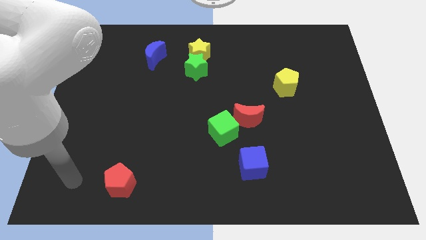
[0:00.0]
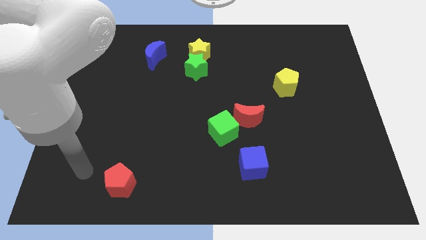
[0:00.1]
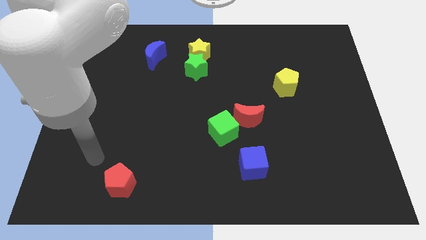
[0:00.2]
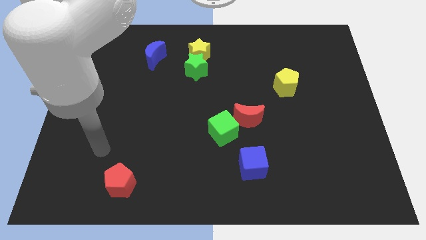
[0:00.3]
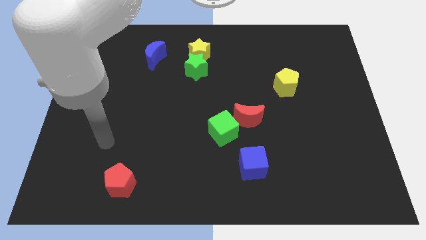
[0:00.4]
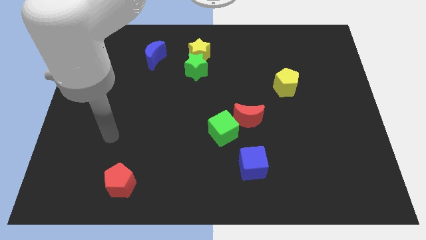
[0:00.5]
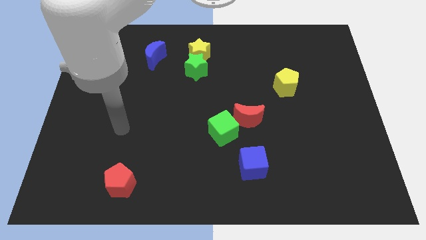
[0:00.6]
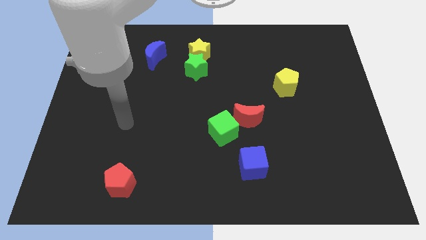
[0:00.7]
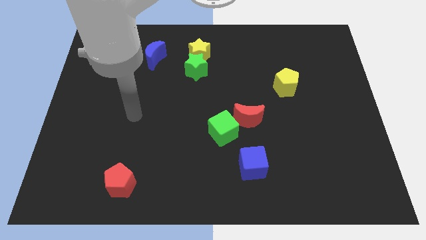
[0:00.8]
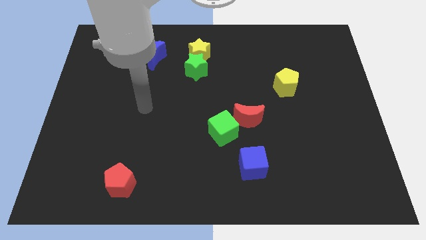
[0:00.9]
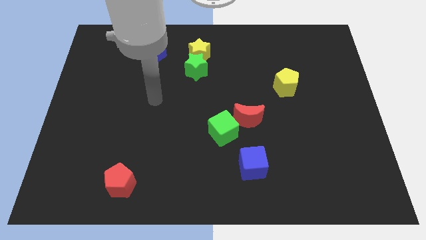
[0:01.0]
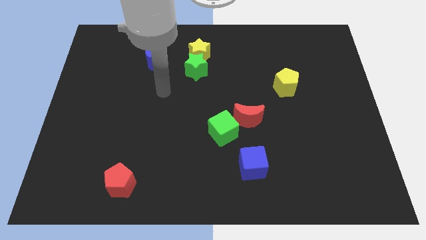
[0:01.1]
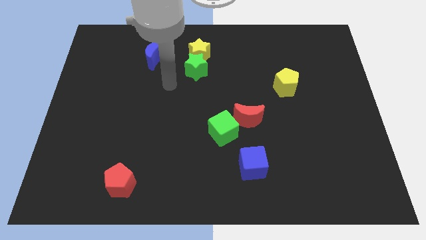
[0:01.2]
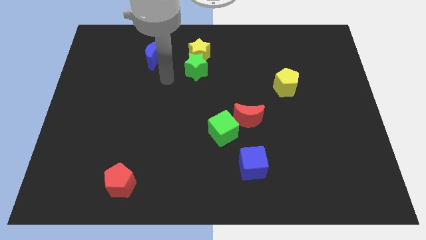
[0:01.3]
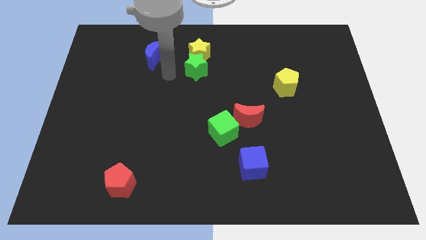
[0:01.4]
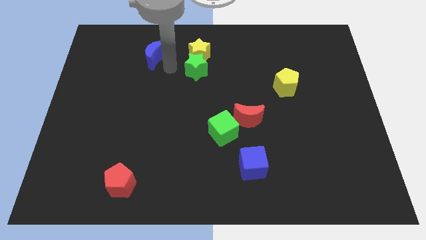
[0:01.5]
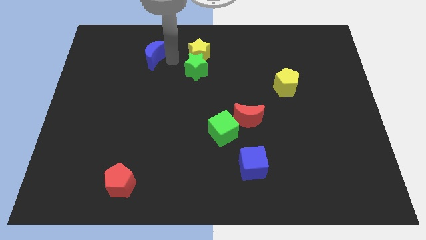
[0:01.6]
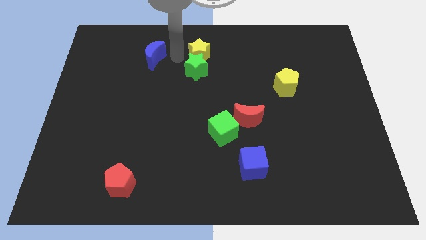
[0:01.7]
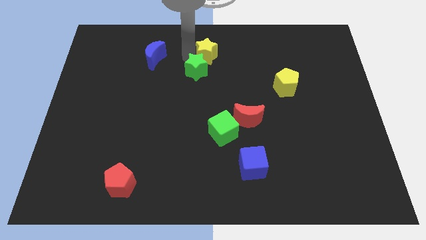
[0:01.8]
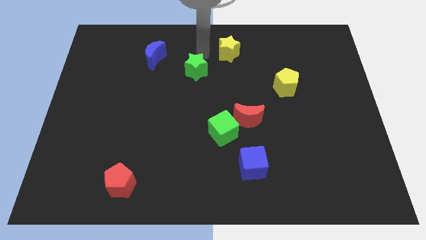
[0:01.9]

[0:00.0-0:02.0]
pull the green star apart from the yellow star

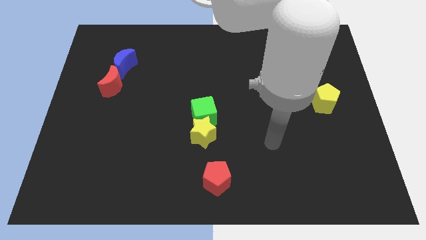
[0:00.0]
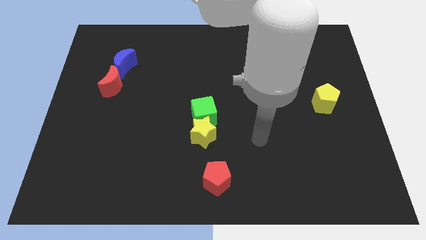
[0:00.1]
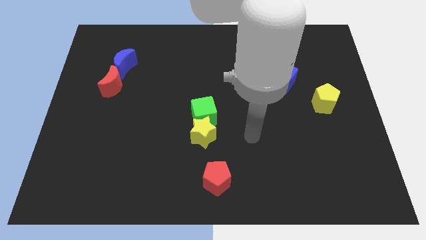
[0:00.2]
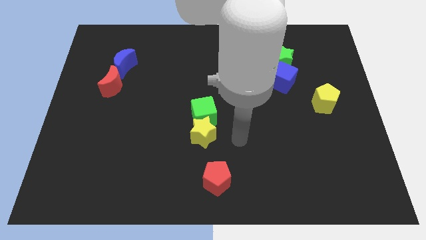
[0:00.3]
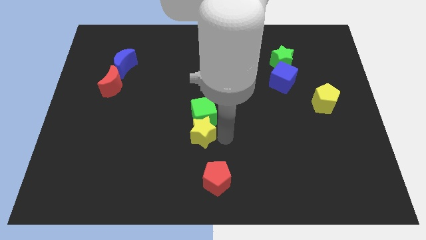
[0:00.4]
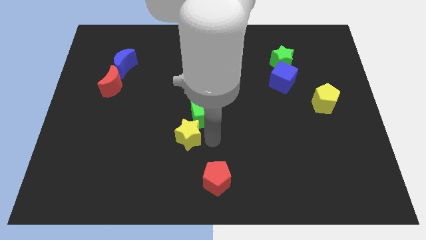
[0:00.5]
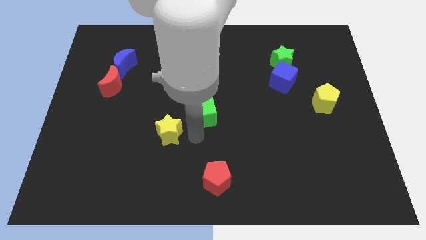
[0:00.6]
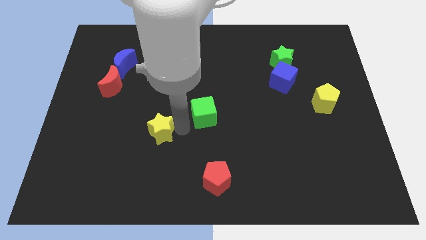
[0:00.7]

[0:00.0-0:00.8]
separate the green cube from the yellow star

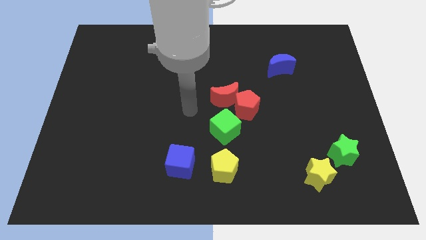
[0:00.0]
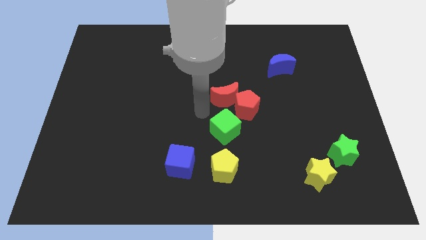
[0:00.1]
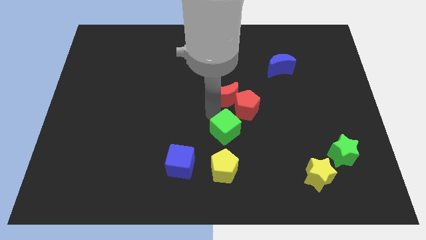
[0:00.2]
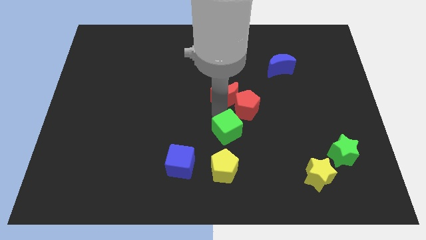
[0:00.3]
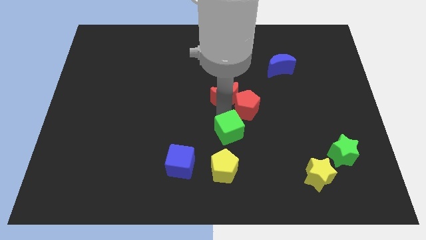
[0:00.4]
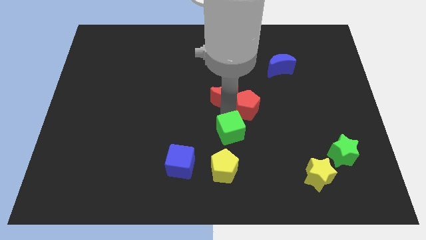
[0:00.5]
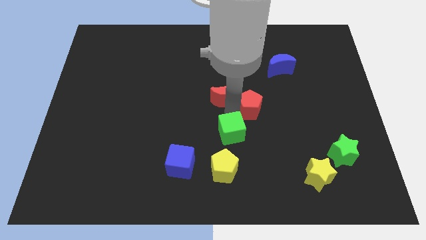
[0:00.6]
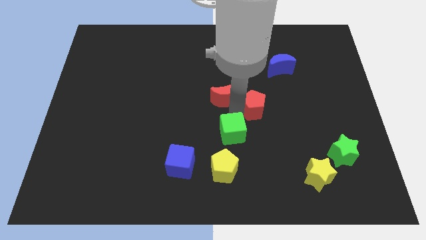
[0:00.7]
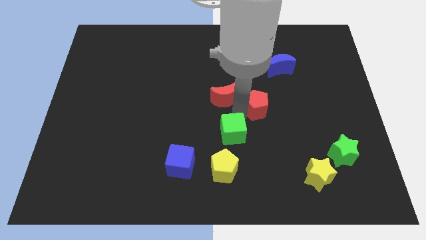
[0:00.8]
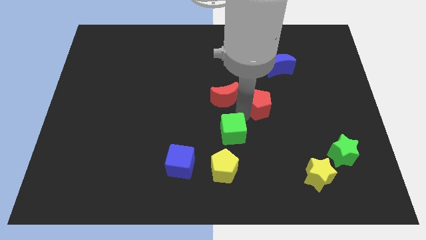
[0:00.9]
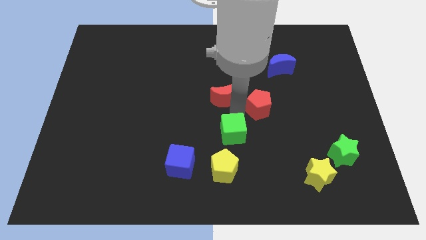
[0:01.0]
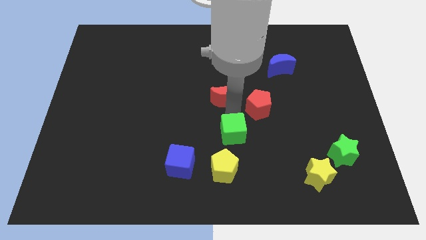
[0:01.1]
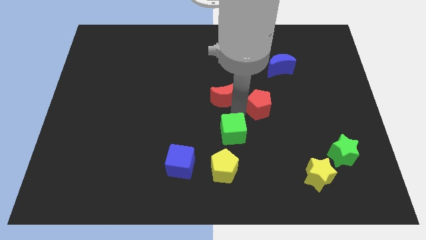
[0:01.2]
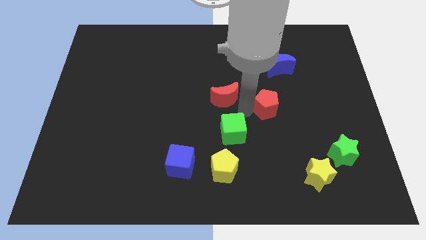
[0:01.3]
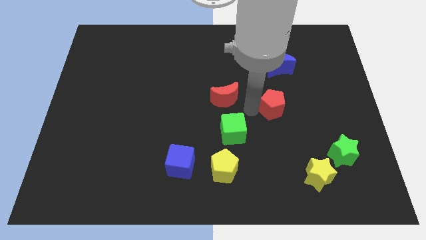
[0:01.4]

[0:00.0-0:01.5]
move the red pentagon away from the red moon and green cube

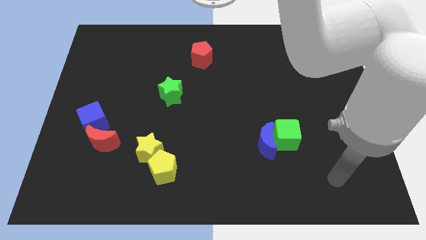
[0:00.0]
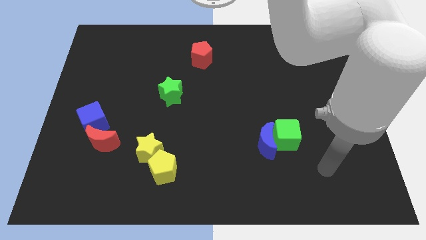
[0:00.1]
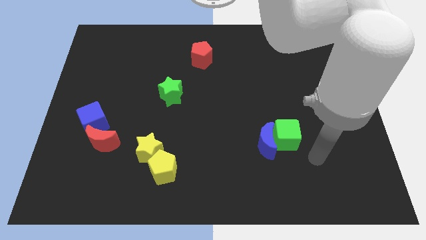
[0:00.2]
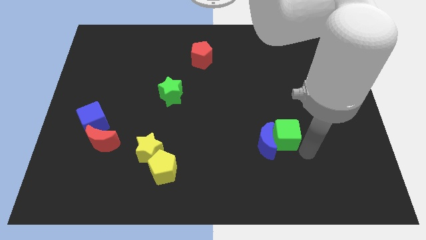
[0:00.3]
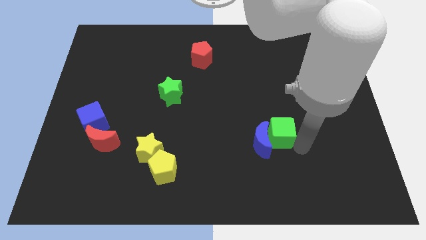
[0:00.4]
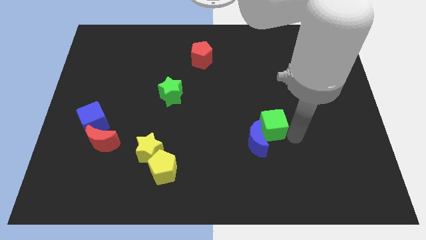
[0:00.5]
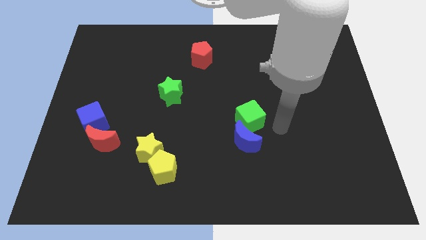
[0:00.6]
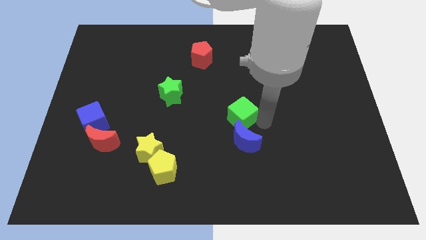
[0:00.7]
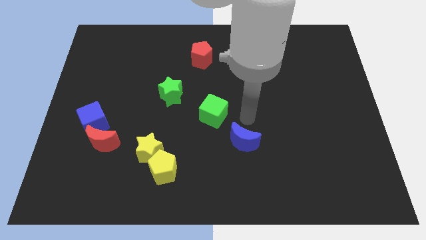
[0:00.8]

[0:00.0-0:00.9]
pull the blue moon apart from the green cube

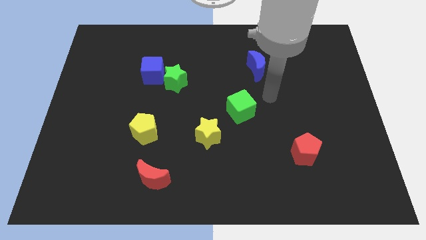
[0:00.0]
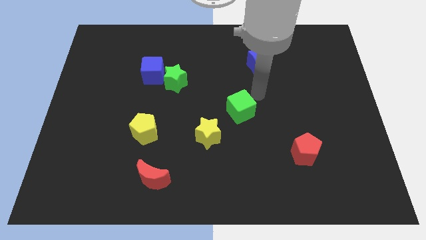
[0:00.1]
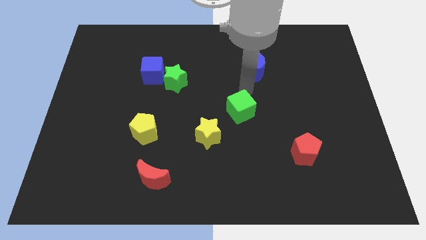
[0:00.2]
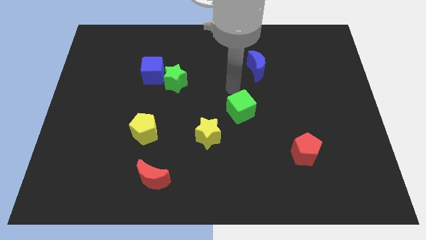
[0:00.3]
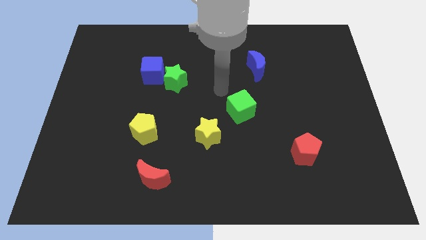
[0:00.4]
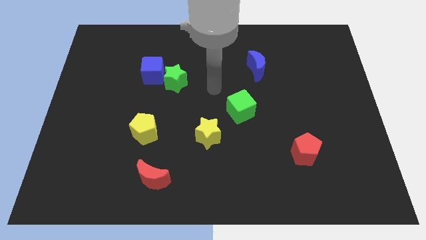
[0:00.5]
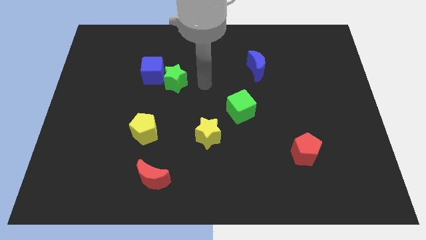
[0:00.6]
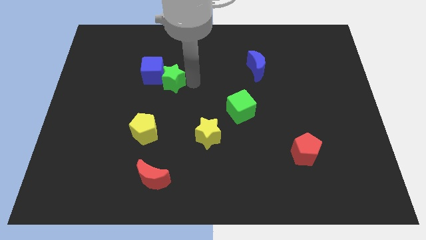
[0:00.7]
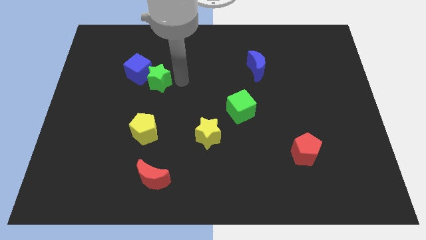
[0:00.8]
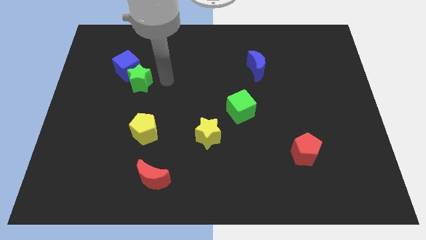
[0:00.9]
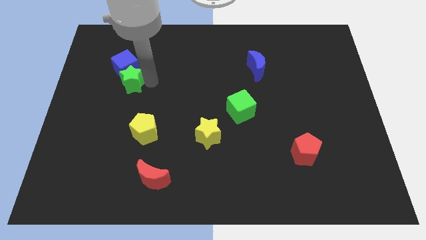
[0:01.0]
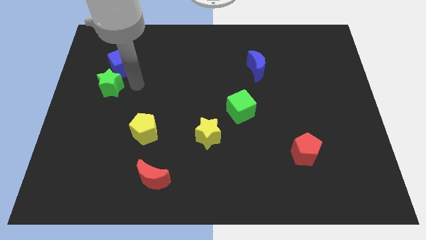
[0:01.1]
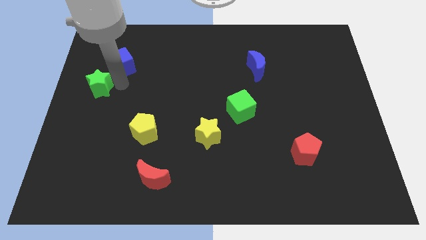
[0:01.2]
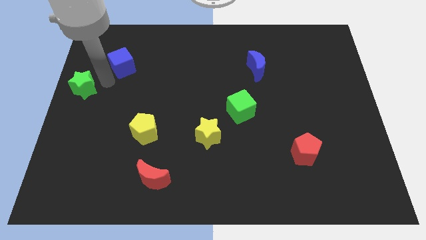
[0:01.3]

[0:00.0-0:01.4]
move the blue cube away from the green star

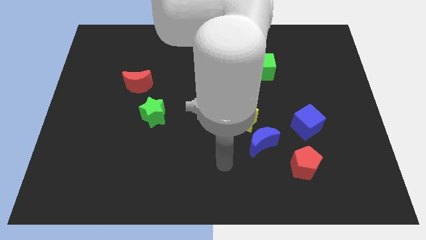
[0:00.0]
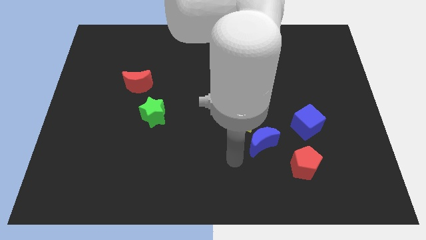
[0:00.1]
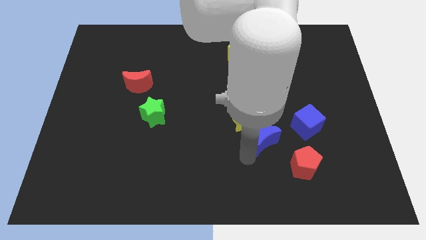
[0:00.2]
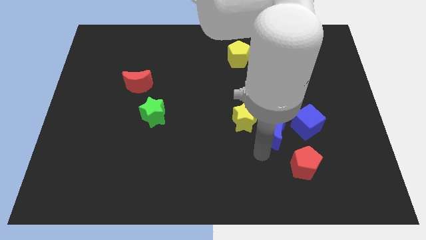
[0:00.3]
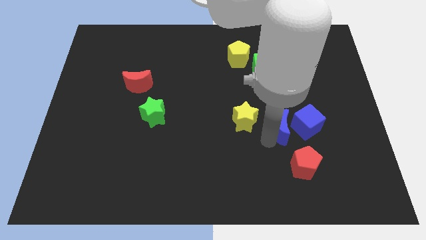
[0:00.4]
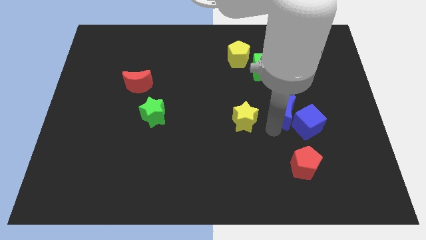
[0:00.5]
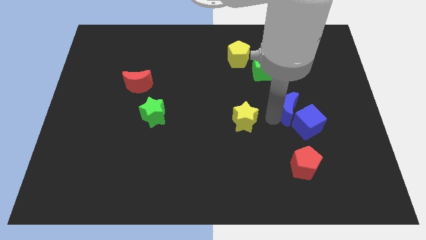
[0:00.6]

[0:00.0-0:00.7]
separate the yellow star from the blue moon

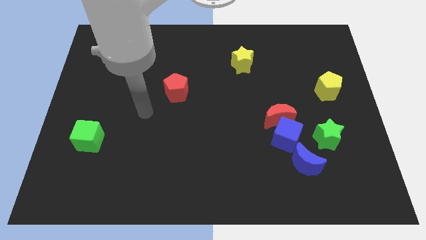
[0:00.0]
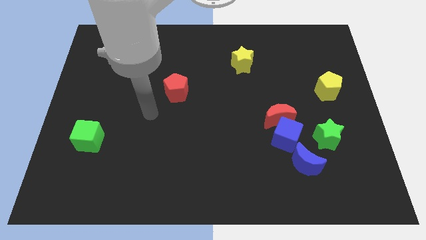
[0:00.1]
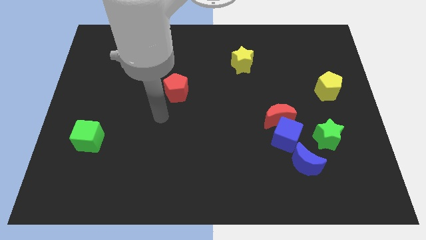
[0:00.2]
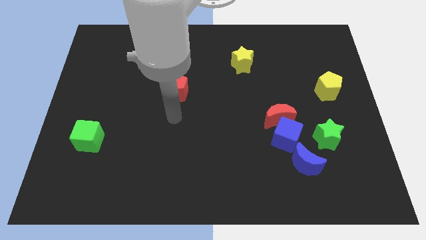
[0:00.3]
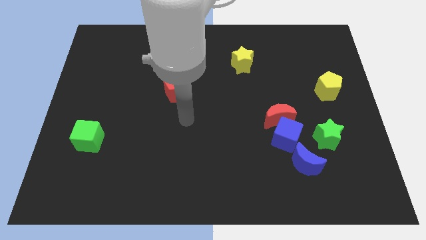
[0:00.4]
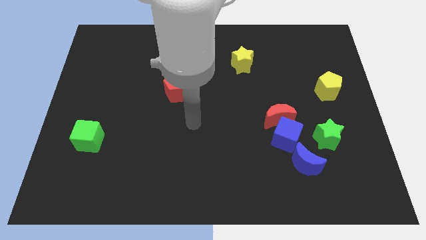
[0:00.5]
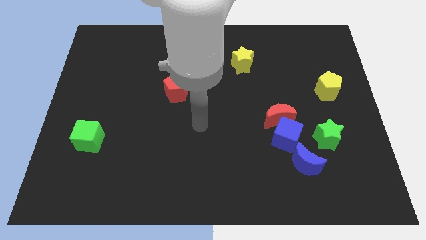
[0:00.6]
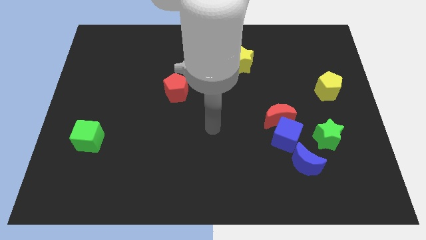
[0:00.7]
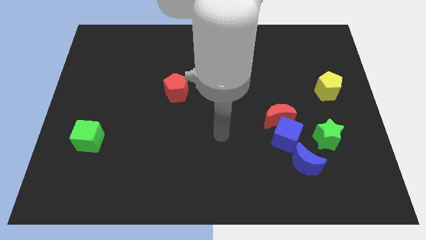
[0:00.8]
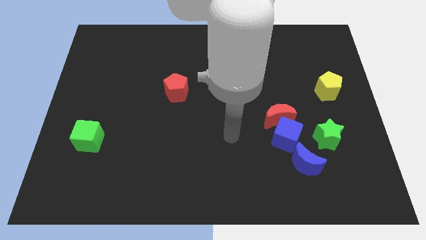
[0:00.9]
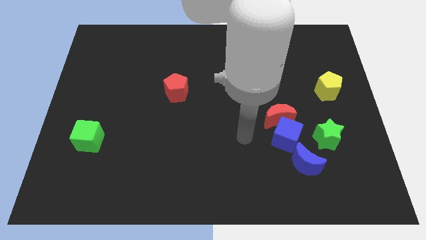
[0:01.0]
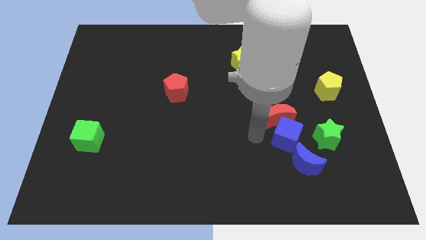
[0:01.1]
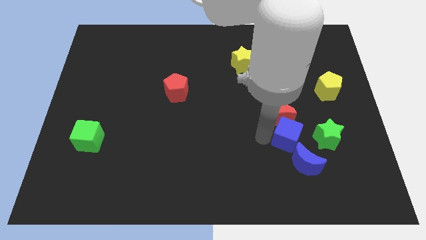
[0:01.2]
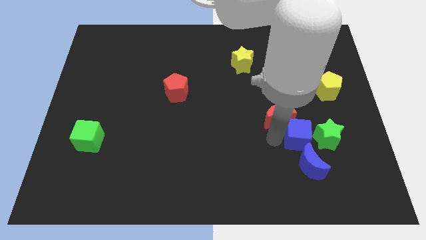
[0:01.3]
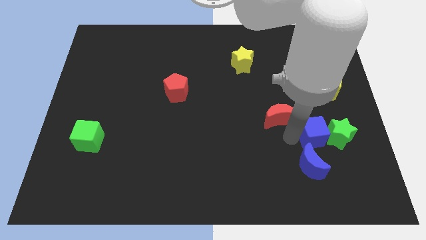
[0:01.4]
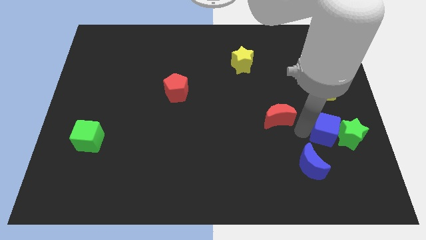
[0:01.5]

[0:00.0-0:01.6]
move the red moon away from the blue cube

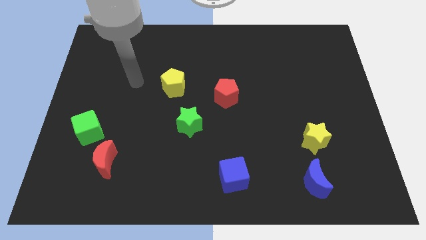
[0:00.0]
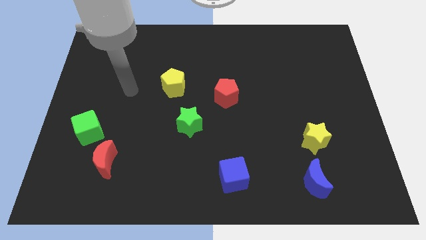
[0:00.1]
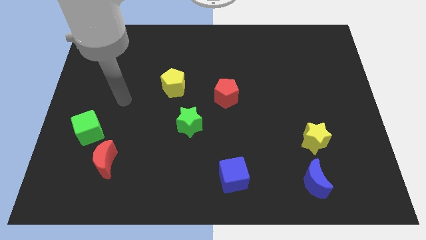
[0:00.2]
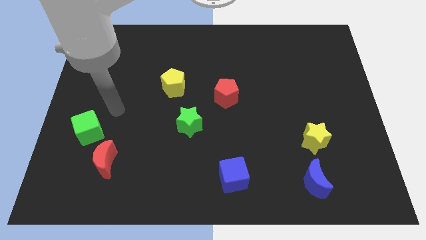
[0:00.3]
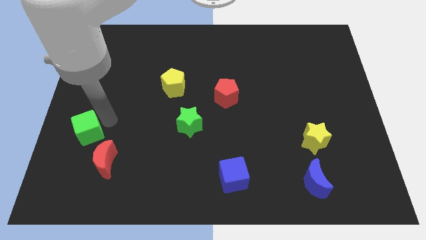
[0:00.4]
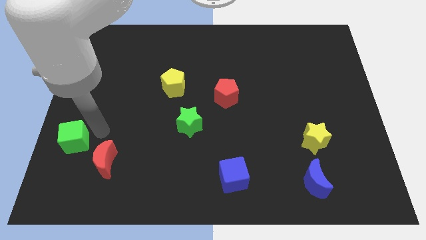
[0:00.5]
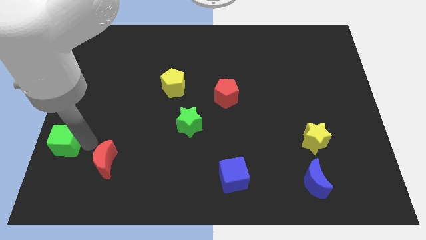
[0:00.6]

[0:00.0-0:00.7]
pull the red moon apart from the green cube
